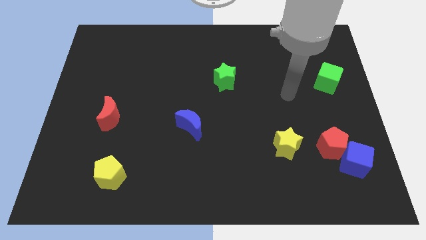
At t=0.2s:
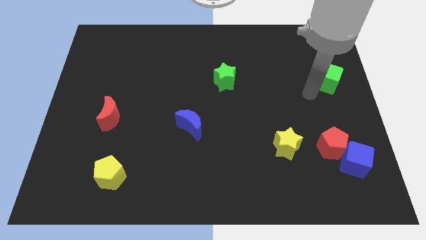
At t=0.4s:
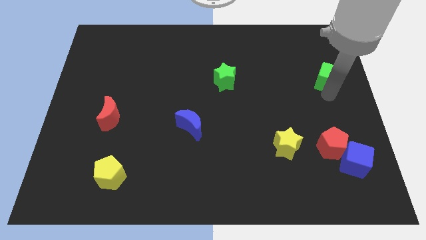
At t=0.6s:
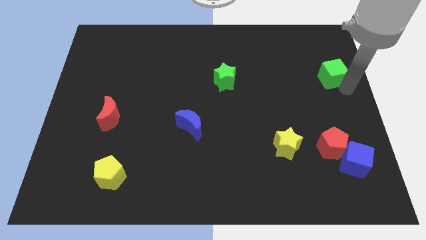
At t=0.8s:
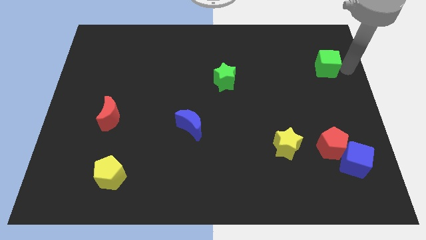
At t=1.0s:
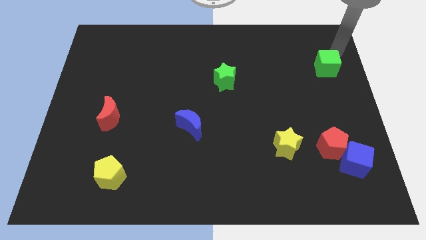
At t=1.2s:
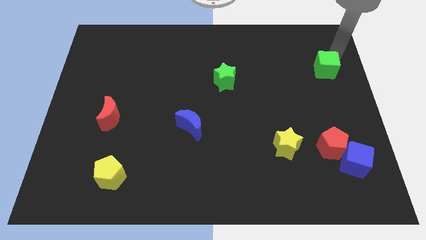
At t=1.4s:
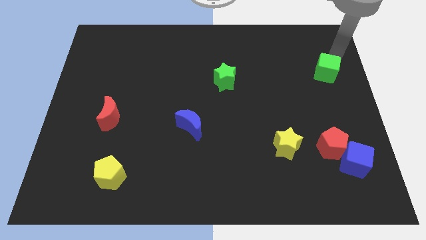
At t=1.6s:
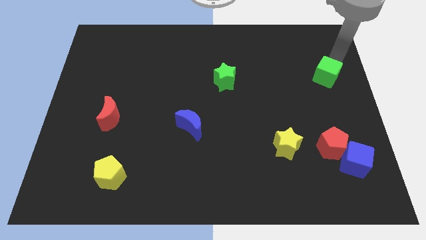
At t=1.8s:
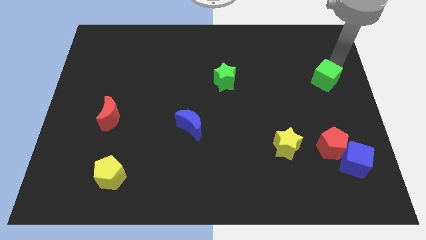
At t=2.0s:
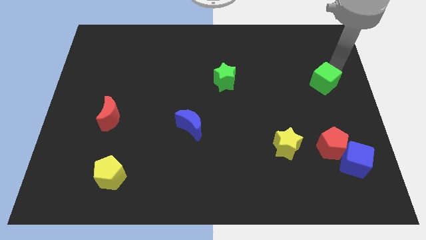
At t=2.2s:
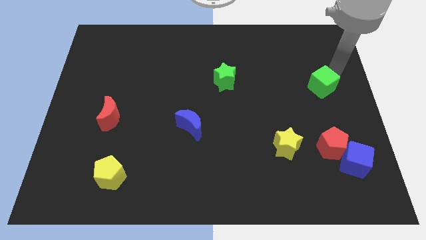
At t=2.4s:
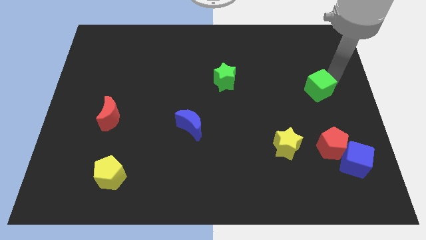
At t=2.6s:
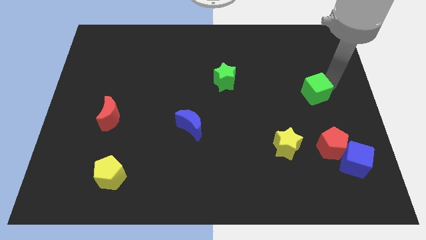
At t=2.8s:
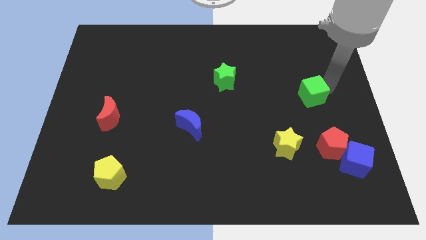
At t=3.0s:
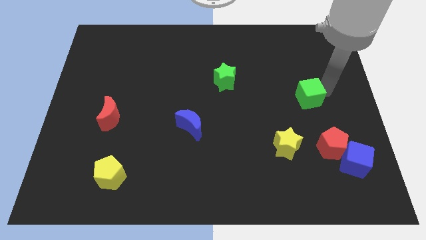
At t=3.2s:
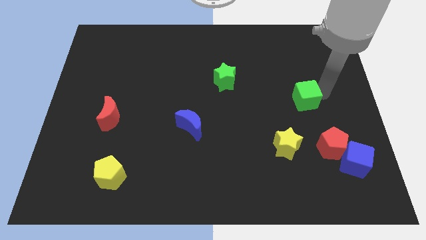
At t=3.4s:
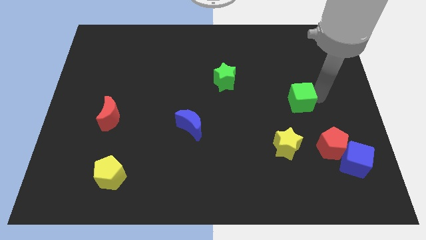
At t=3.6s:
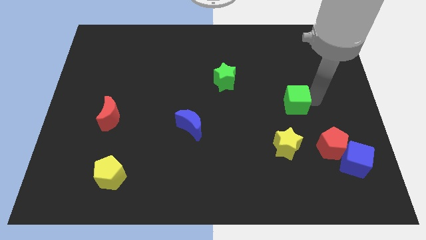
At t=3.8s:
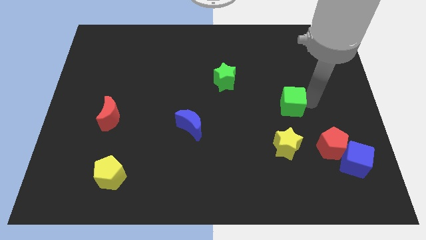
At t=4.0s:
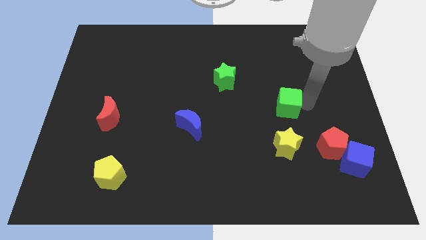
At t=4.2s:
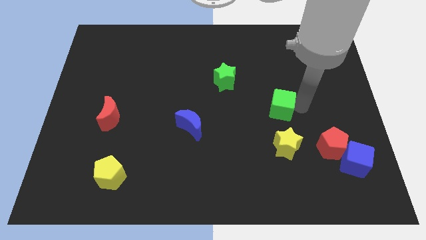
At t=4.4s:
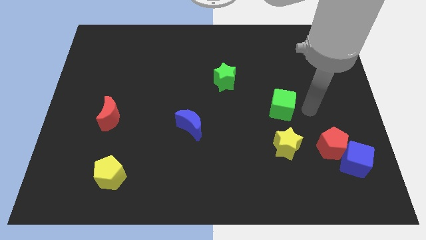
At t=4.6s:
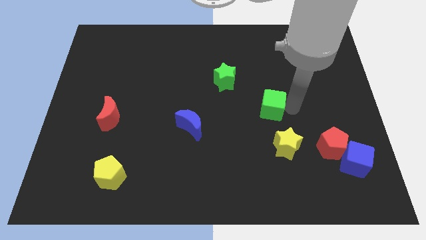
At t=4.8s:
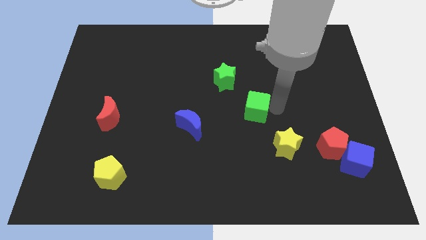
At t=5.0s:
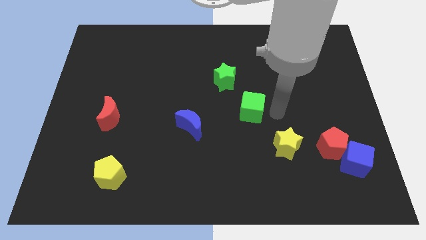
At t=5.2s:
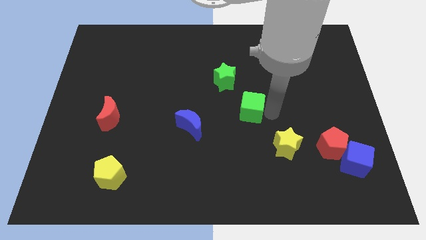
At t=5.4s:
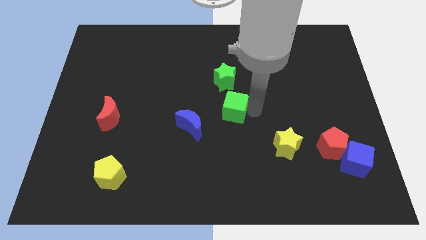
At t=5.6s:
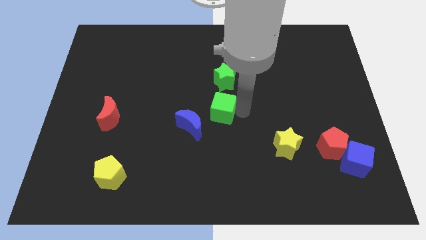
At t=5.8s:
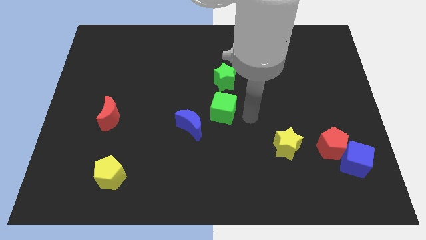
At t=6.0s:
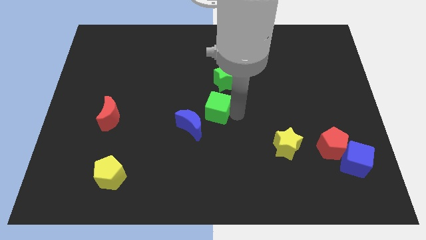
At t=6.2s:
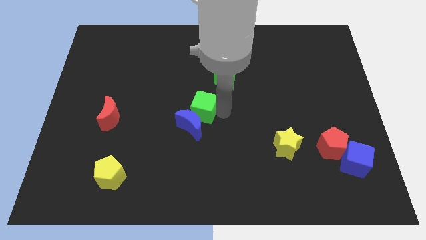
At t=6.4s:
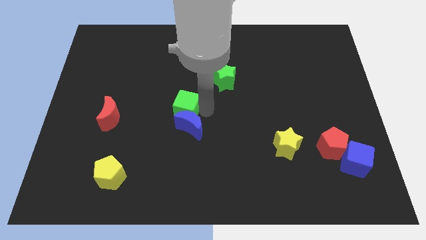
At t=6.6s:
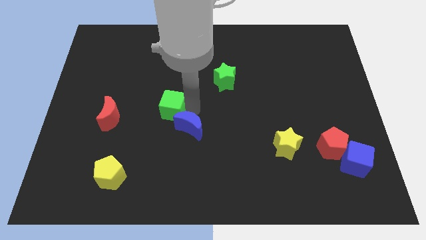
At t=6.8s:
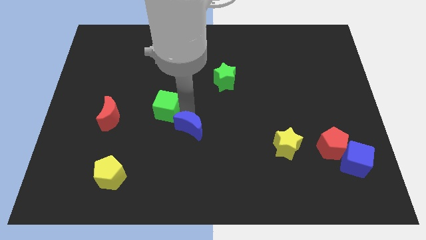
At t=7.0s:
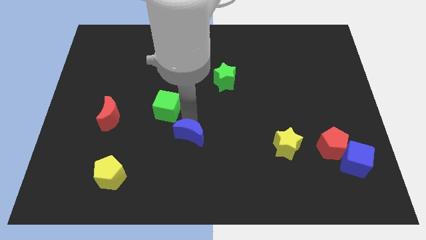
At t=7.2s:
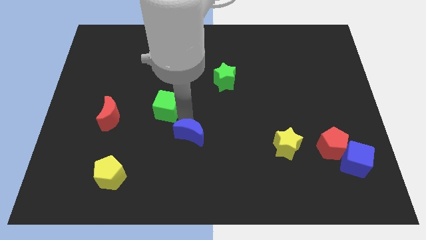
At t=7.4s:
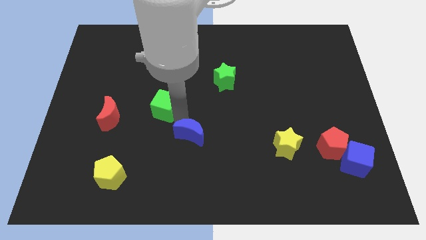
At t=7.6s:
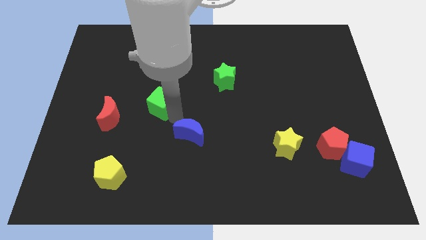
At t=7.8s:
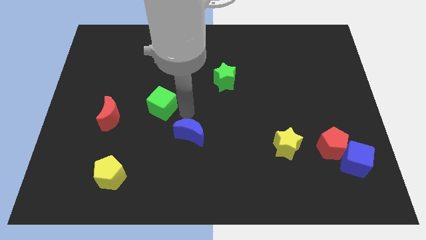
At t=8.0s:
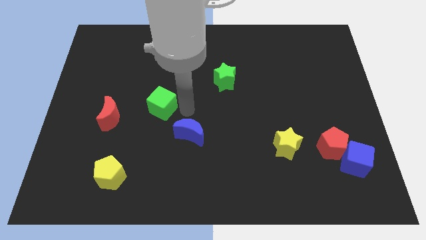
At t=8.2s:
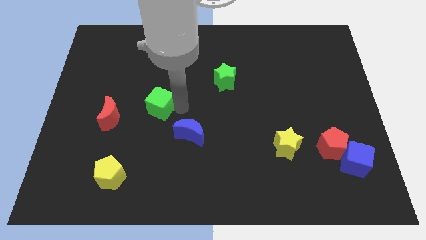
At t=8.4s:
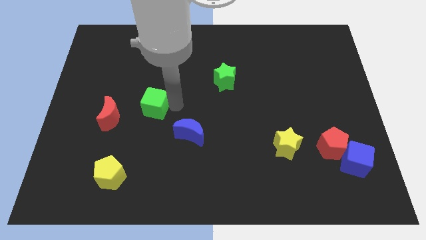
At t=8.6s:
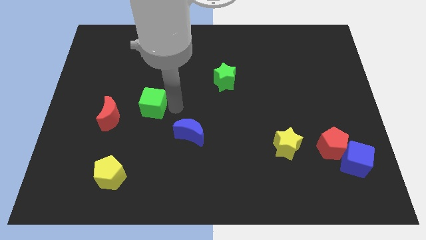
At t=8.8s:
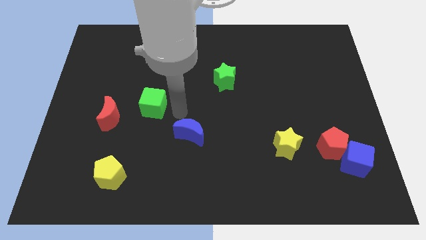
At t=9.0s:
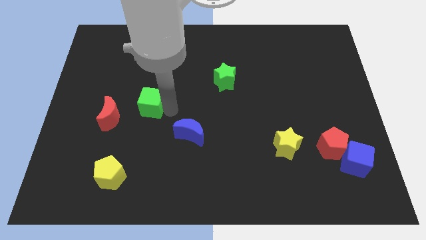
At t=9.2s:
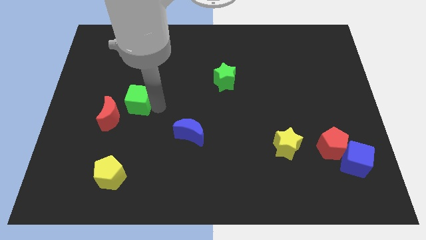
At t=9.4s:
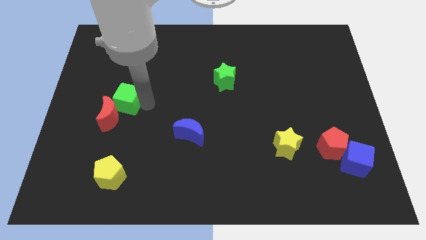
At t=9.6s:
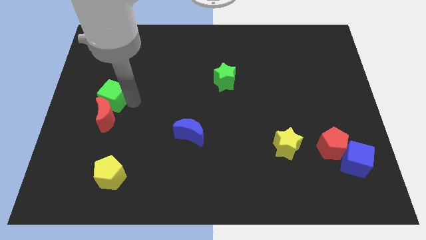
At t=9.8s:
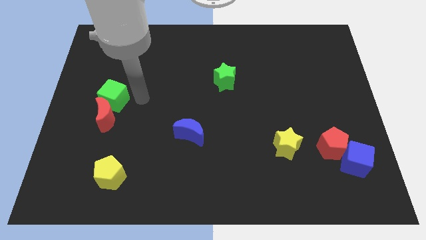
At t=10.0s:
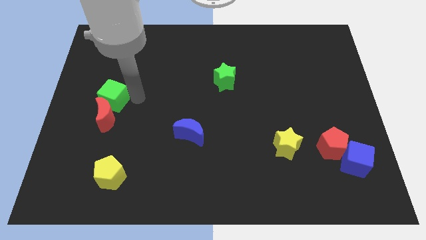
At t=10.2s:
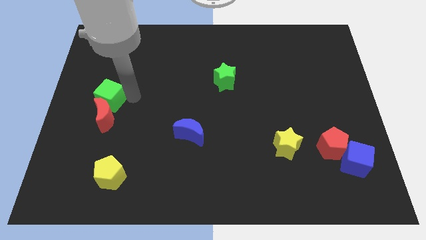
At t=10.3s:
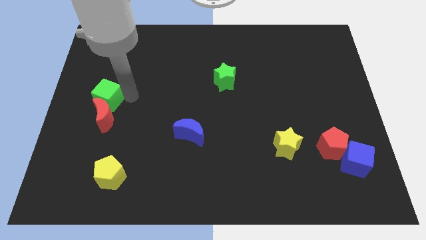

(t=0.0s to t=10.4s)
push the green cube to the left side of the board
